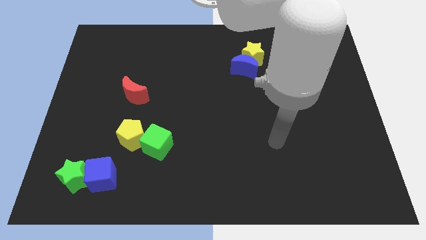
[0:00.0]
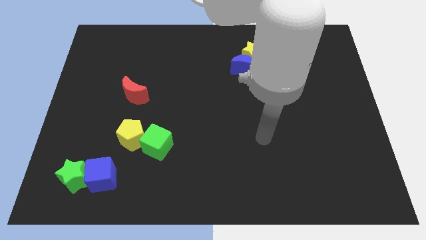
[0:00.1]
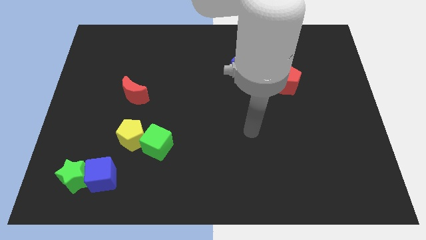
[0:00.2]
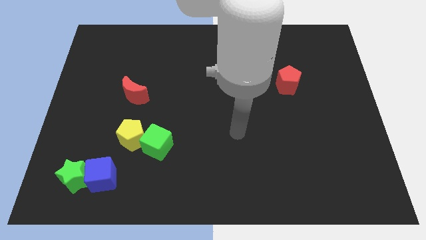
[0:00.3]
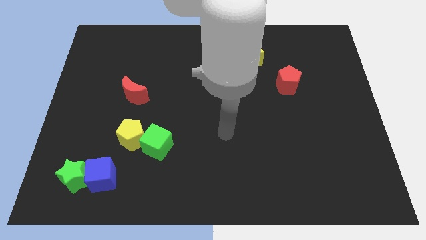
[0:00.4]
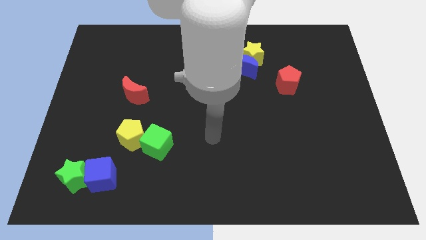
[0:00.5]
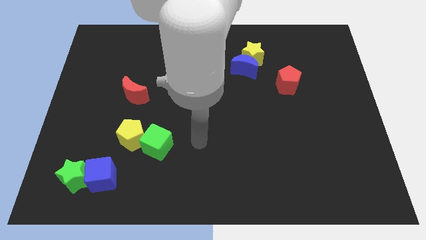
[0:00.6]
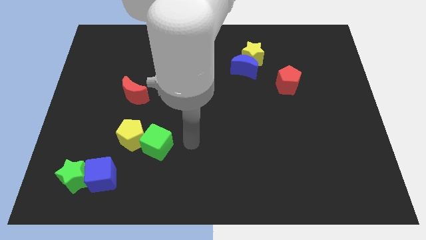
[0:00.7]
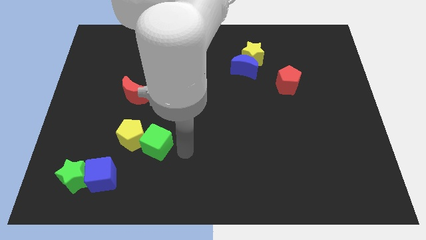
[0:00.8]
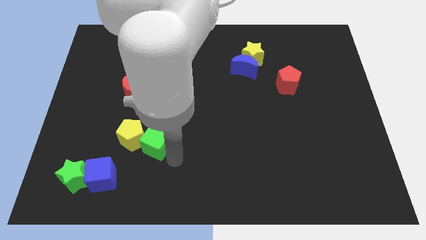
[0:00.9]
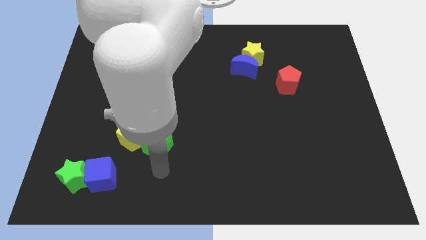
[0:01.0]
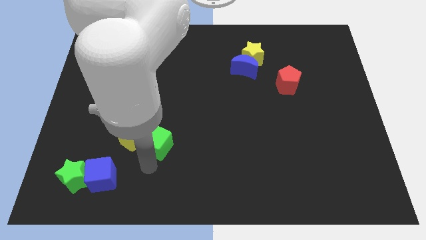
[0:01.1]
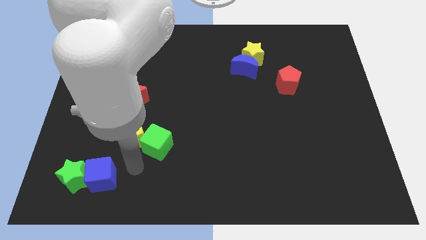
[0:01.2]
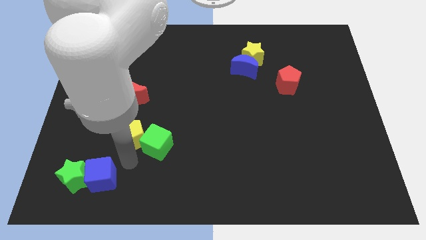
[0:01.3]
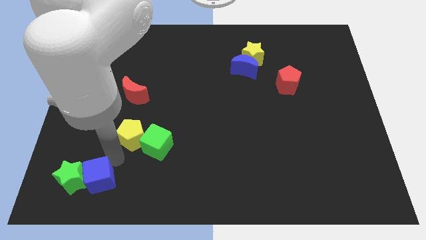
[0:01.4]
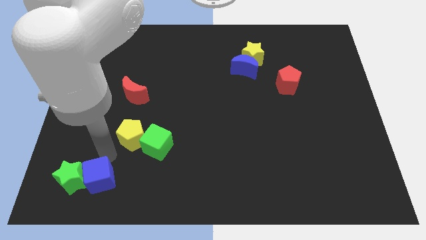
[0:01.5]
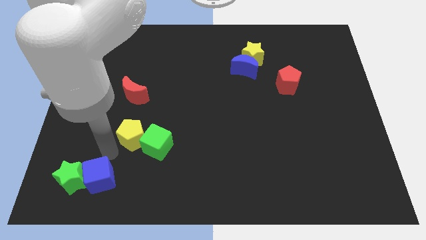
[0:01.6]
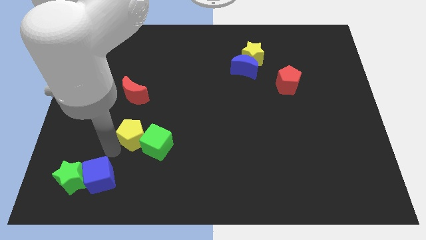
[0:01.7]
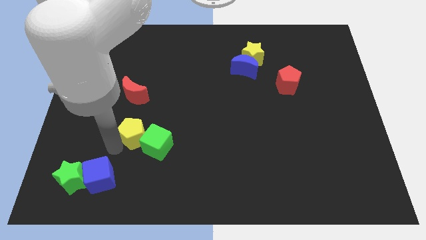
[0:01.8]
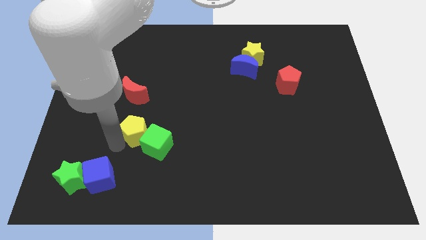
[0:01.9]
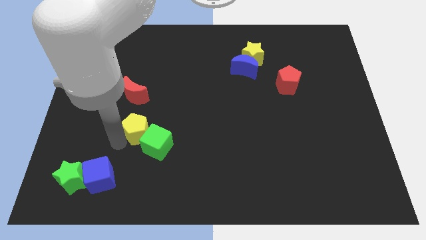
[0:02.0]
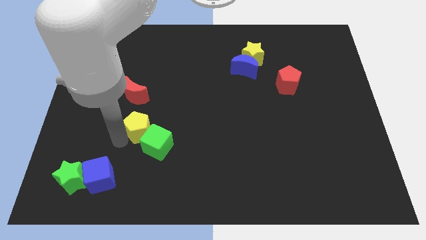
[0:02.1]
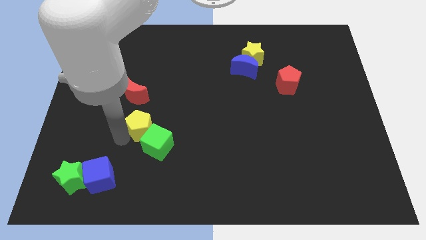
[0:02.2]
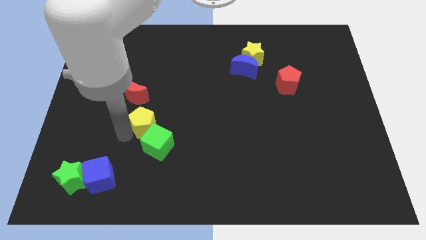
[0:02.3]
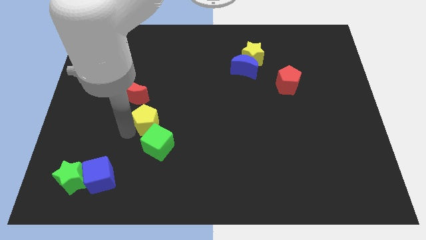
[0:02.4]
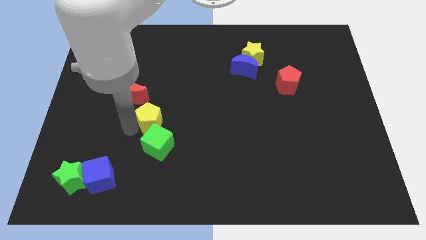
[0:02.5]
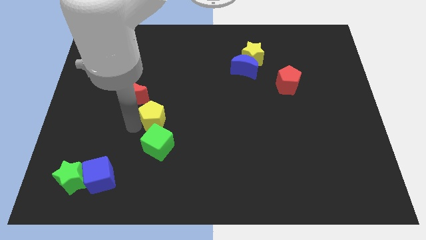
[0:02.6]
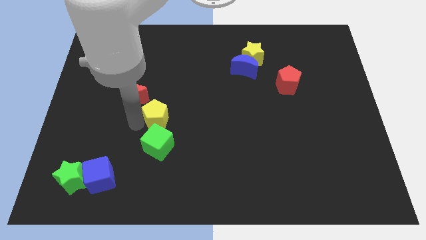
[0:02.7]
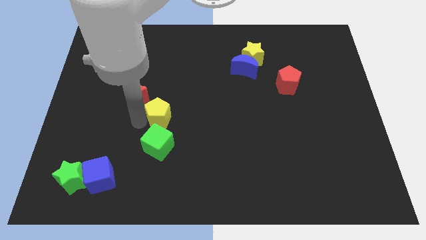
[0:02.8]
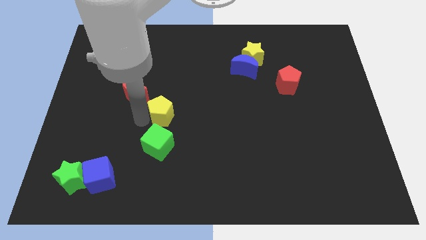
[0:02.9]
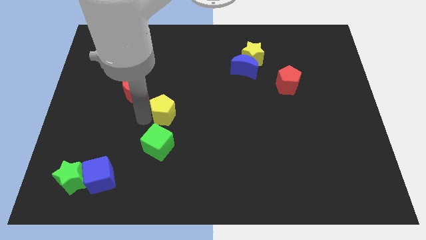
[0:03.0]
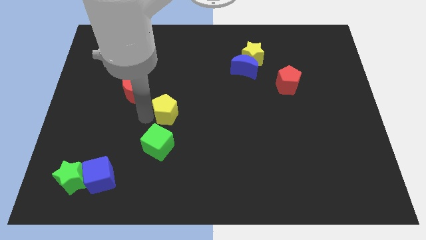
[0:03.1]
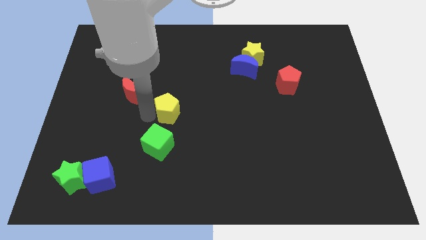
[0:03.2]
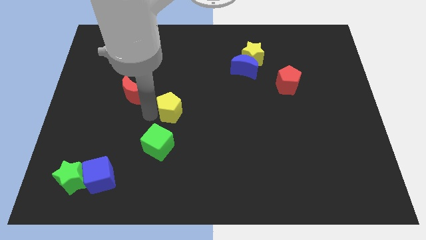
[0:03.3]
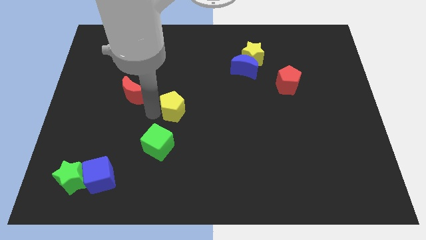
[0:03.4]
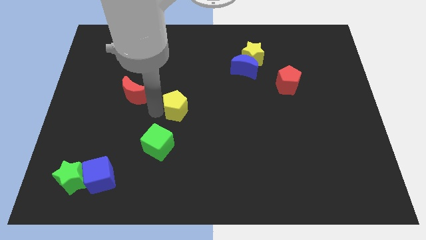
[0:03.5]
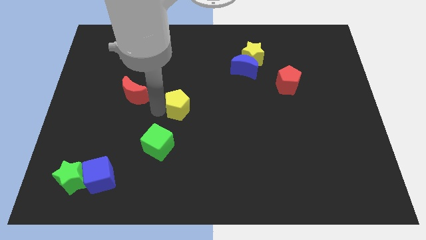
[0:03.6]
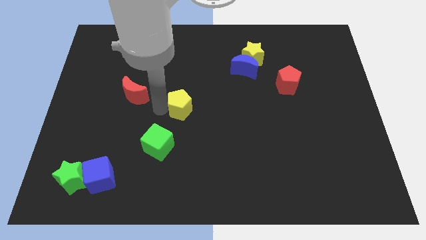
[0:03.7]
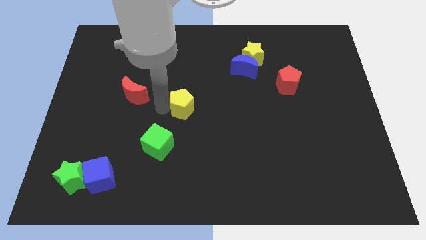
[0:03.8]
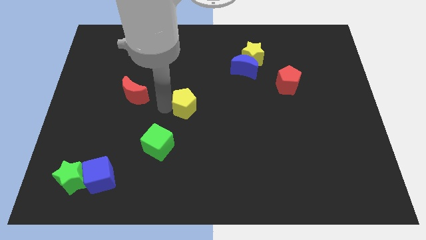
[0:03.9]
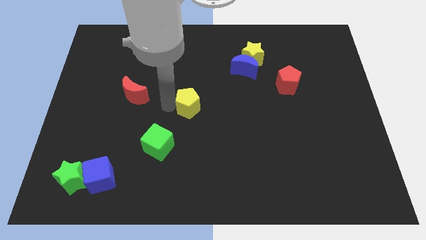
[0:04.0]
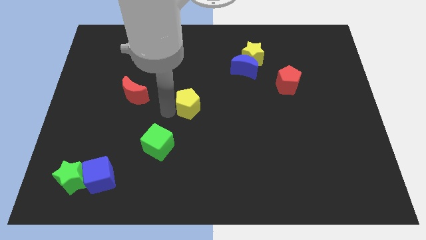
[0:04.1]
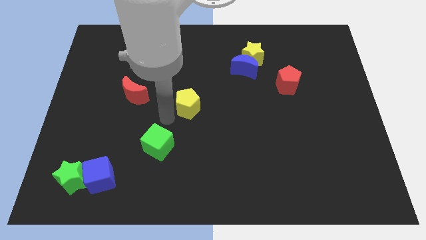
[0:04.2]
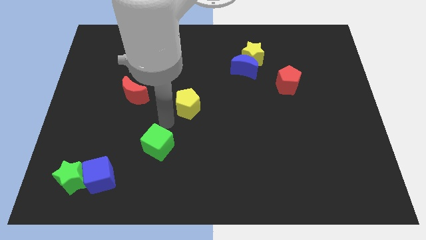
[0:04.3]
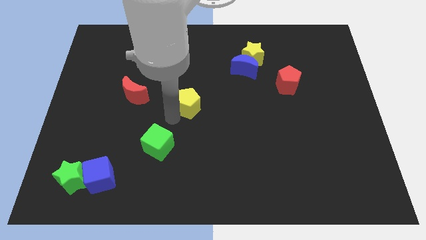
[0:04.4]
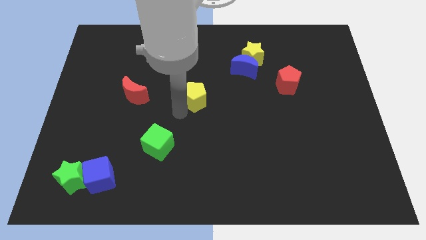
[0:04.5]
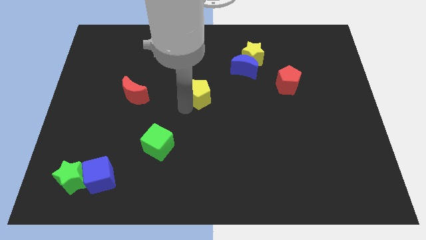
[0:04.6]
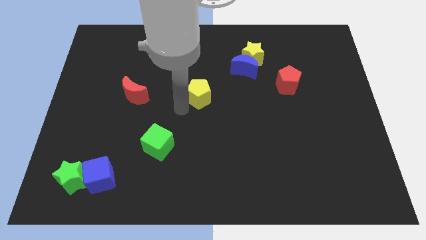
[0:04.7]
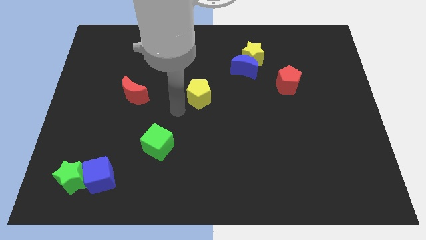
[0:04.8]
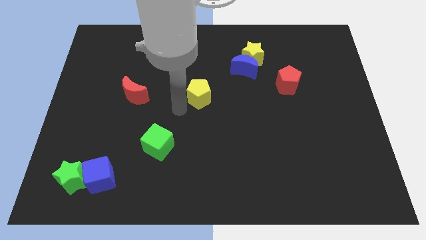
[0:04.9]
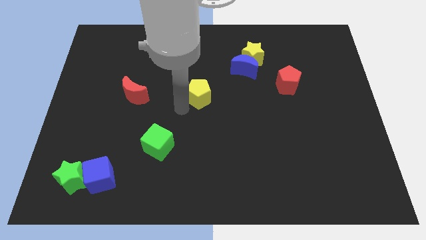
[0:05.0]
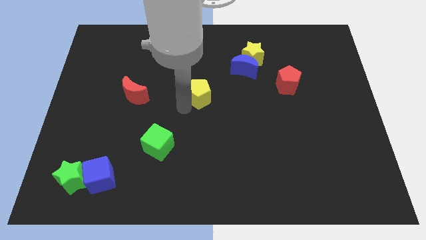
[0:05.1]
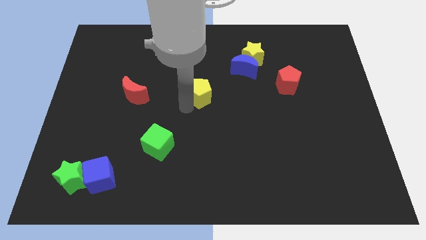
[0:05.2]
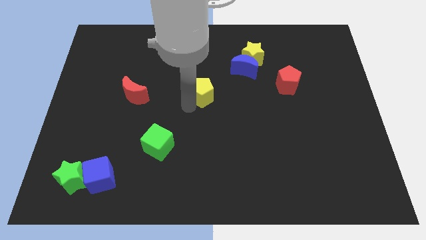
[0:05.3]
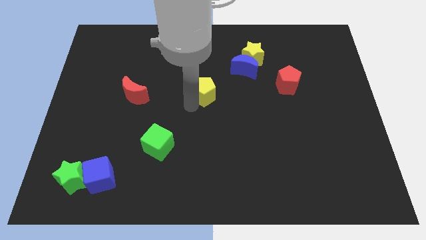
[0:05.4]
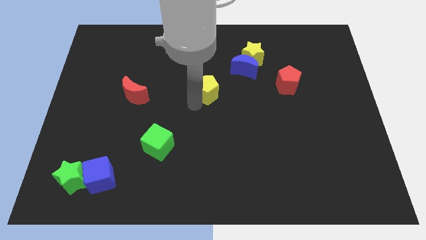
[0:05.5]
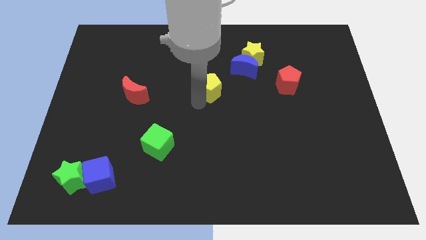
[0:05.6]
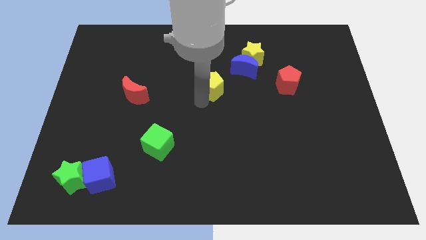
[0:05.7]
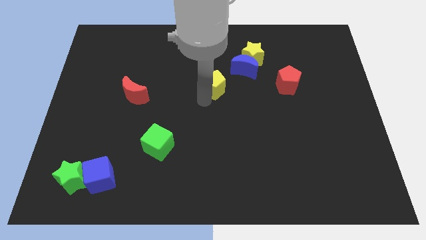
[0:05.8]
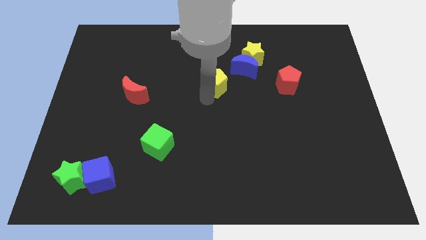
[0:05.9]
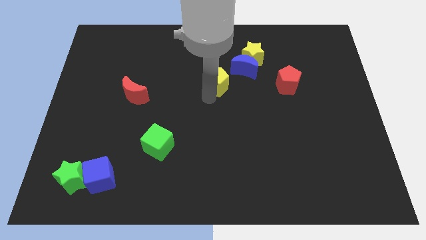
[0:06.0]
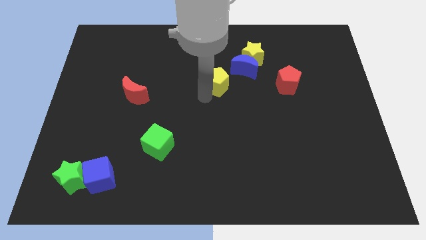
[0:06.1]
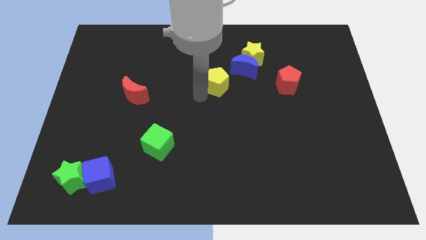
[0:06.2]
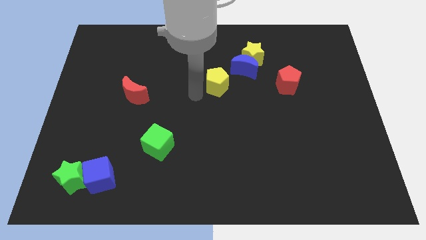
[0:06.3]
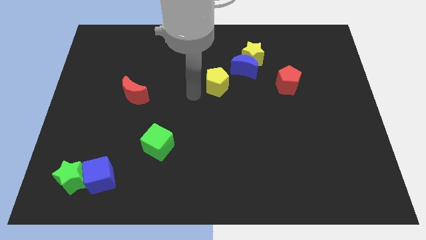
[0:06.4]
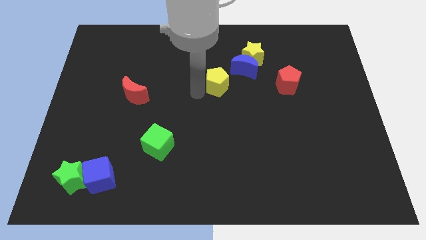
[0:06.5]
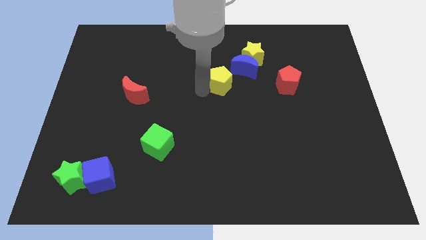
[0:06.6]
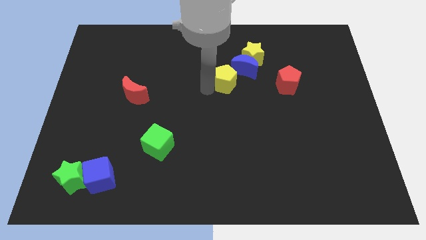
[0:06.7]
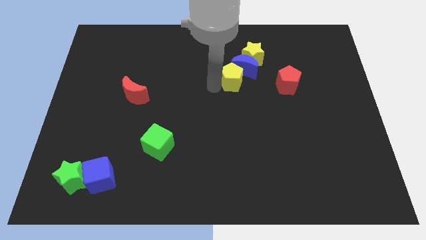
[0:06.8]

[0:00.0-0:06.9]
put the yellow pentagon close to the blue moon

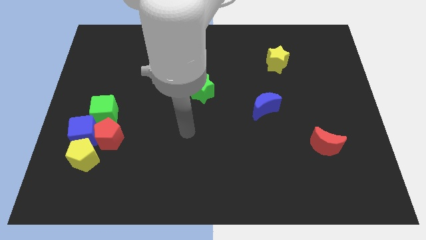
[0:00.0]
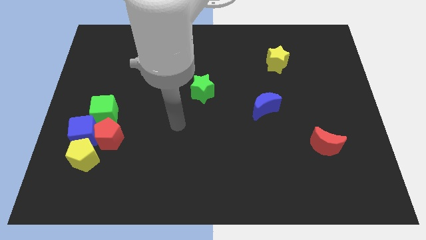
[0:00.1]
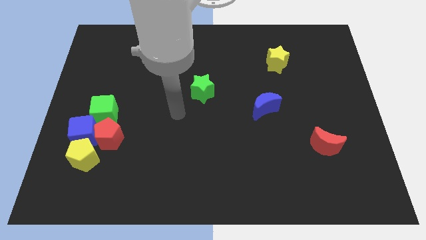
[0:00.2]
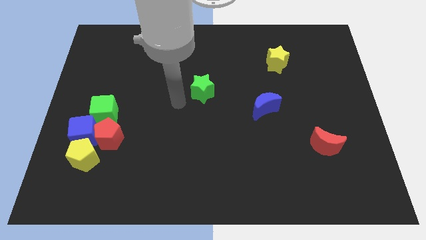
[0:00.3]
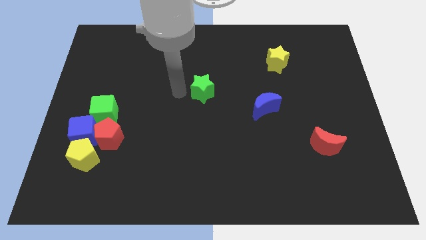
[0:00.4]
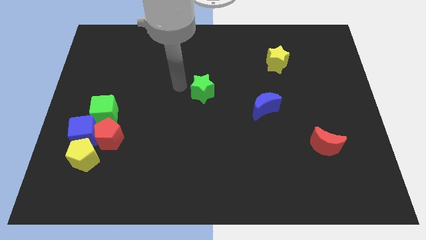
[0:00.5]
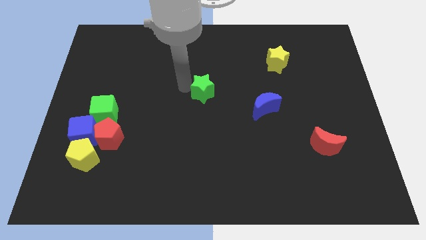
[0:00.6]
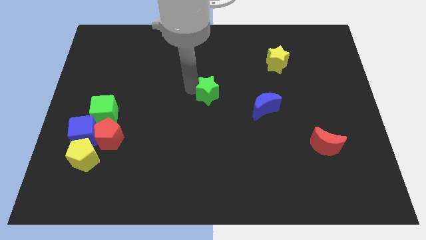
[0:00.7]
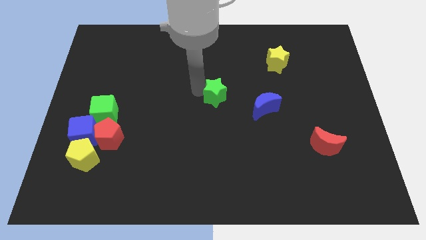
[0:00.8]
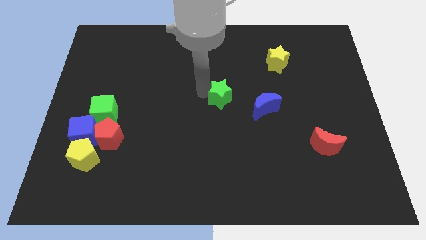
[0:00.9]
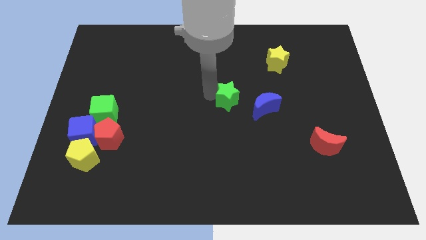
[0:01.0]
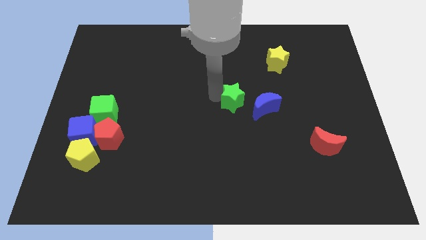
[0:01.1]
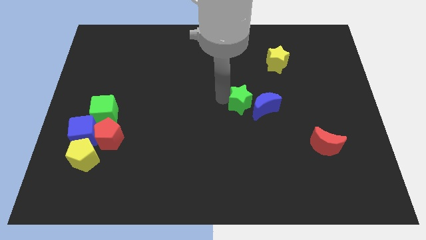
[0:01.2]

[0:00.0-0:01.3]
move the green star close to the blue moon
